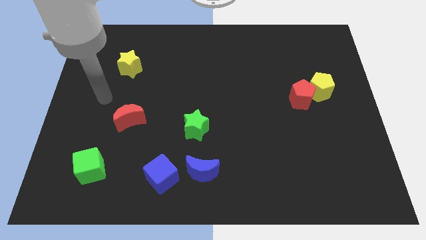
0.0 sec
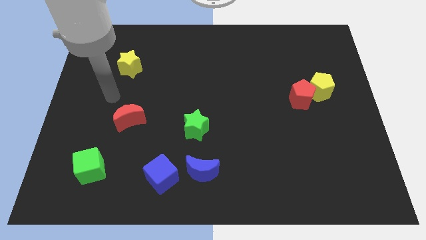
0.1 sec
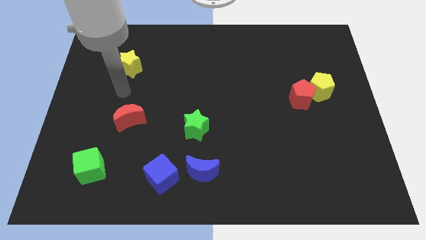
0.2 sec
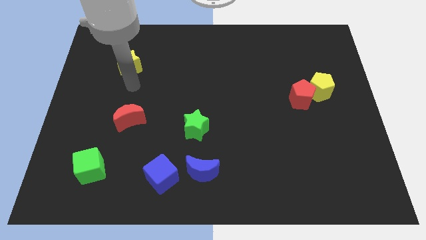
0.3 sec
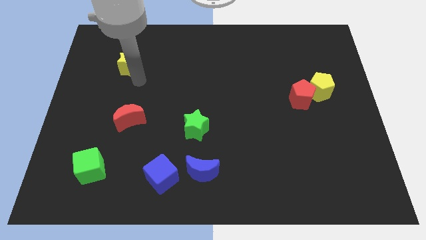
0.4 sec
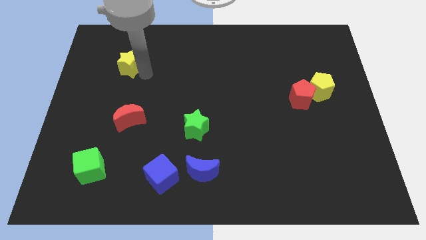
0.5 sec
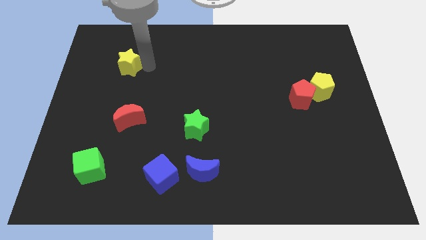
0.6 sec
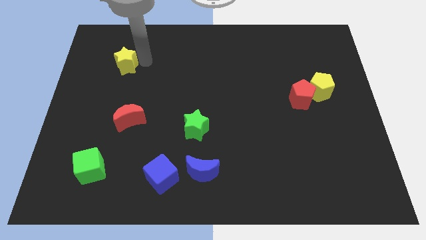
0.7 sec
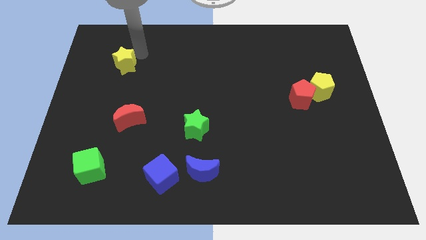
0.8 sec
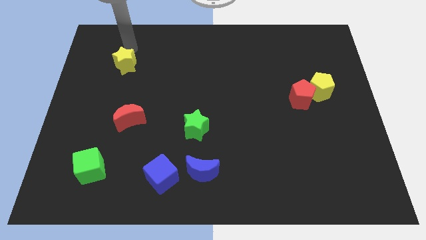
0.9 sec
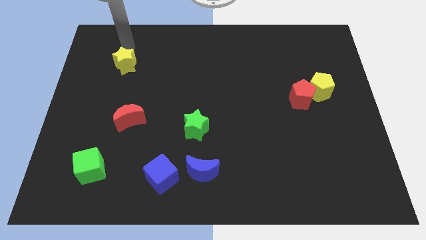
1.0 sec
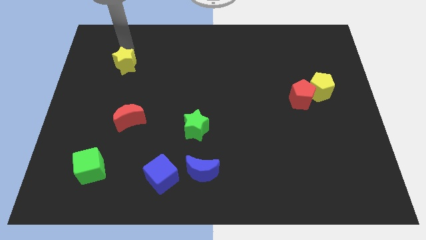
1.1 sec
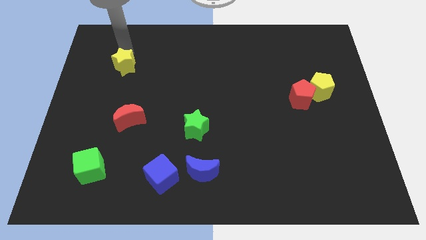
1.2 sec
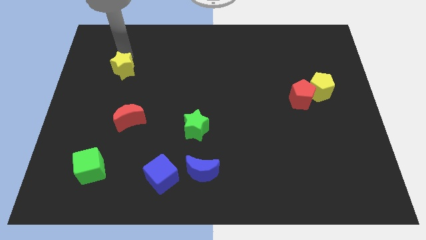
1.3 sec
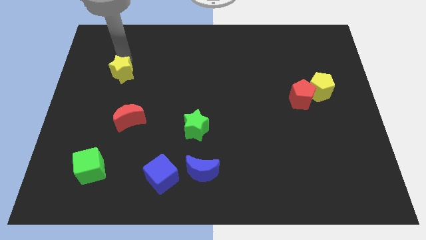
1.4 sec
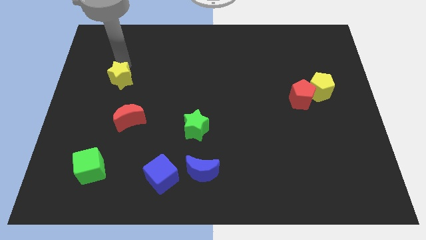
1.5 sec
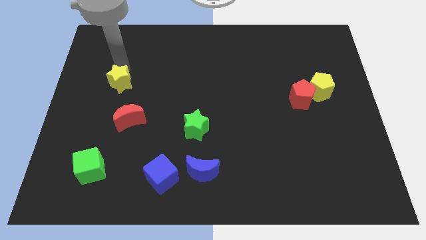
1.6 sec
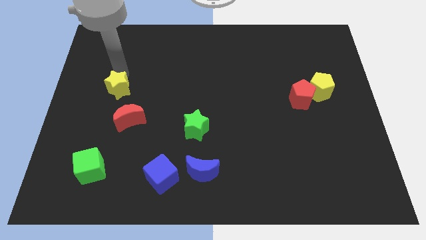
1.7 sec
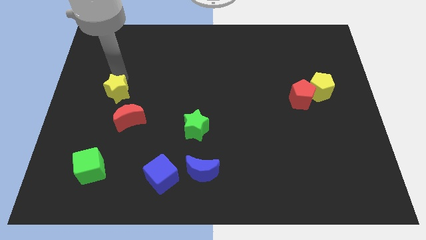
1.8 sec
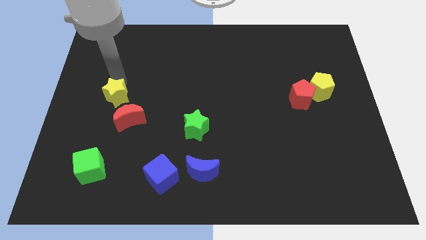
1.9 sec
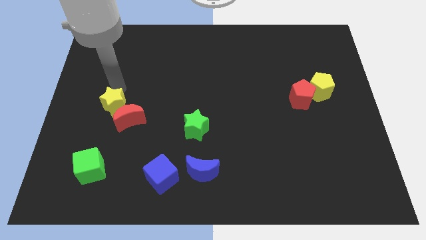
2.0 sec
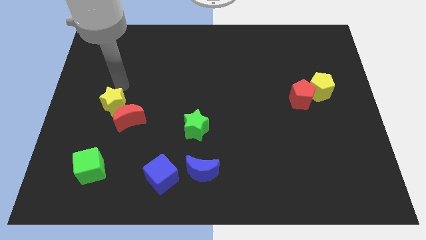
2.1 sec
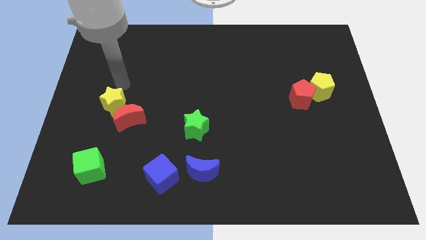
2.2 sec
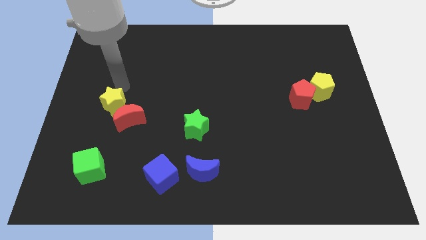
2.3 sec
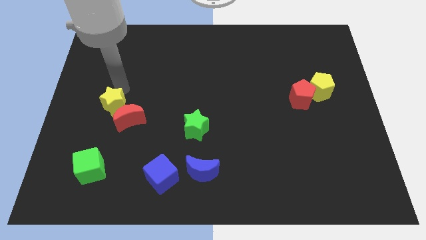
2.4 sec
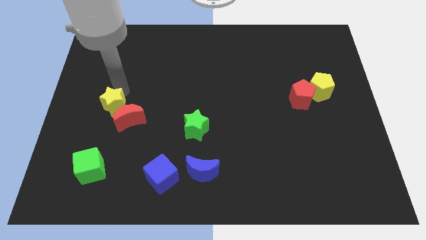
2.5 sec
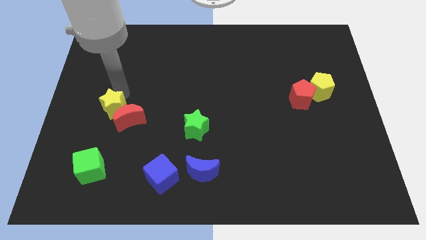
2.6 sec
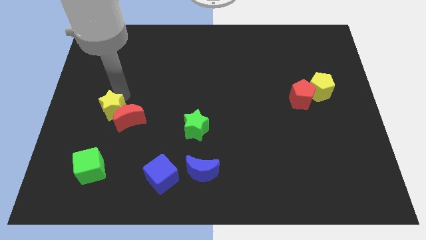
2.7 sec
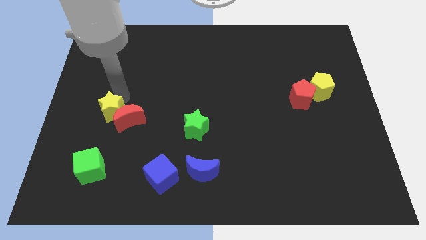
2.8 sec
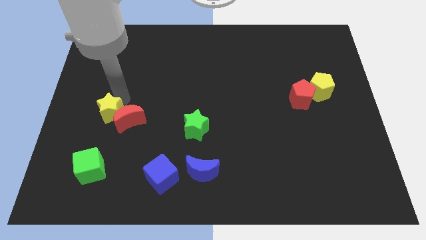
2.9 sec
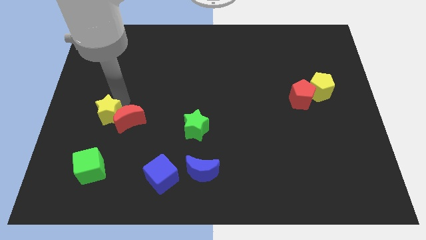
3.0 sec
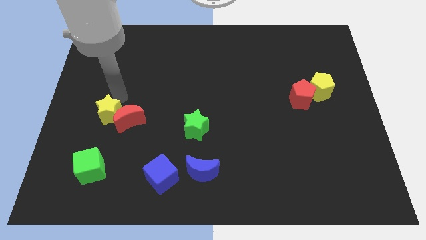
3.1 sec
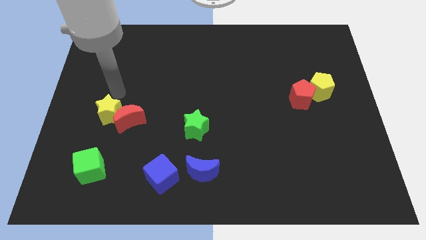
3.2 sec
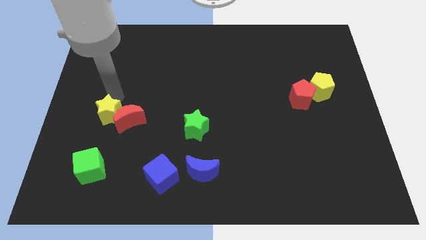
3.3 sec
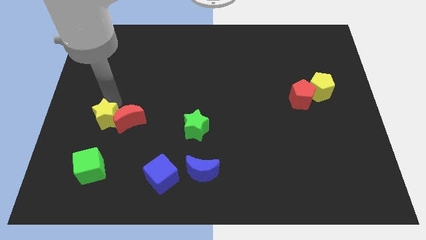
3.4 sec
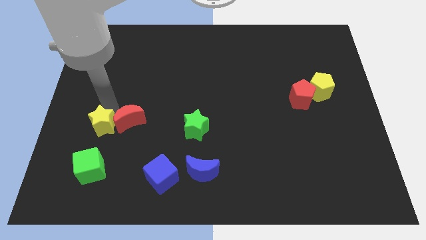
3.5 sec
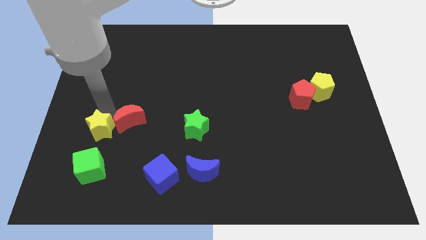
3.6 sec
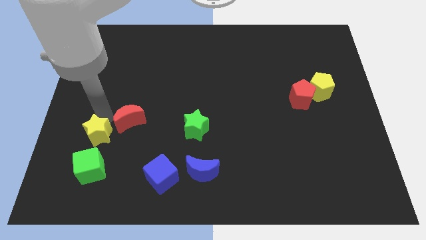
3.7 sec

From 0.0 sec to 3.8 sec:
slide the yellow star down

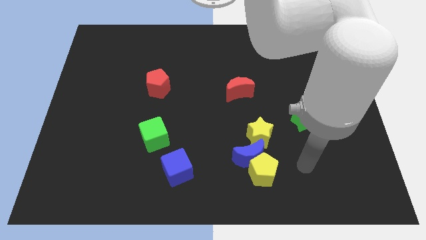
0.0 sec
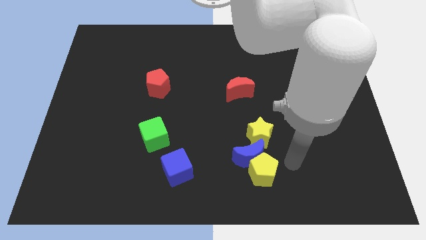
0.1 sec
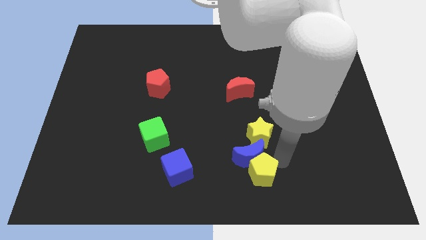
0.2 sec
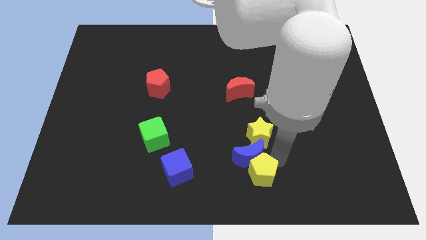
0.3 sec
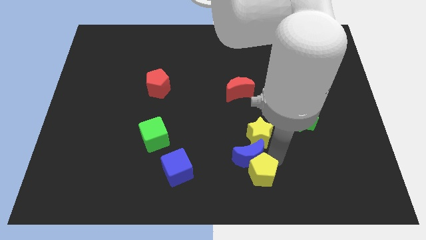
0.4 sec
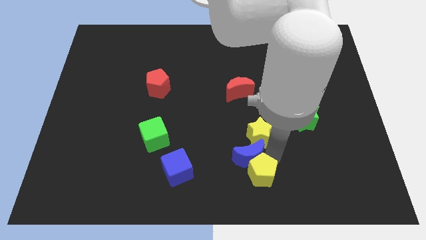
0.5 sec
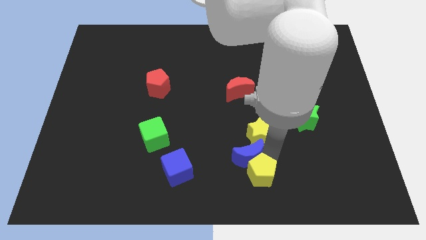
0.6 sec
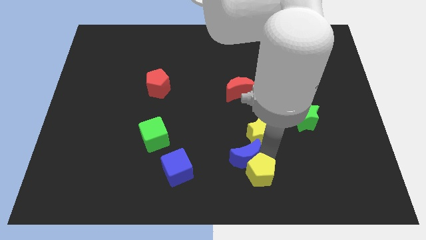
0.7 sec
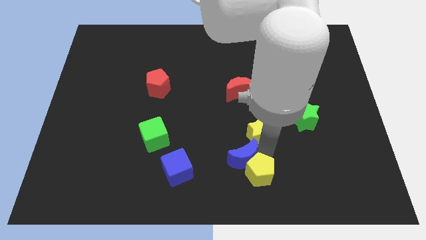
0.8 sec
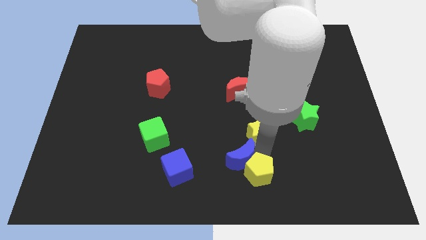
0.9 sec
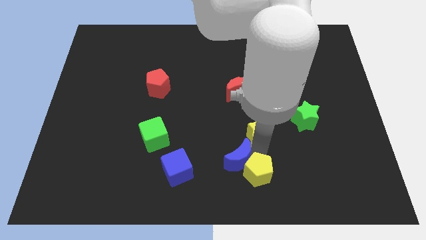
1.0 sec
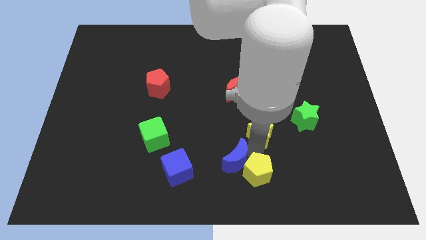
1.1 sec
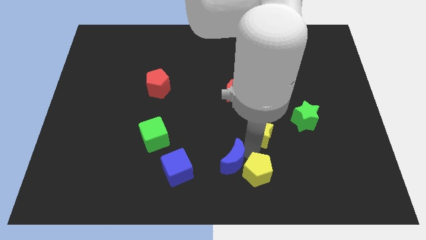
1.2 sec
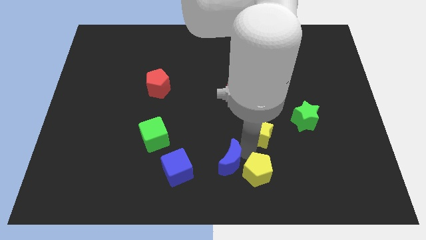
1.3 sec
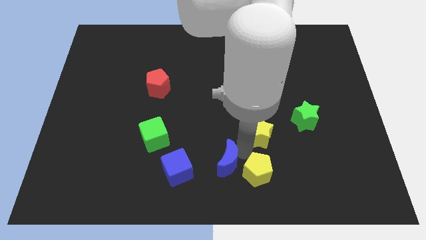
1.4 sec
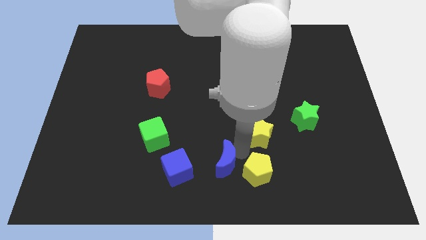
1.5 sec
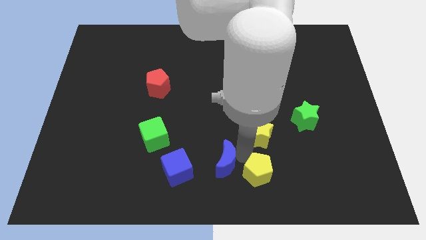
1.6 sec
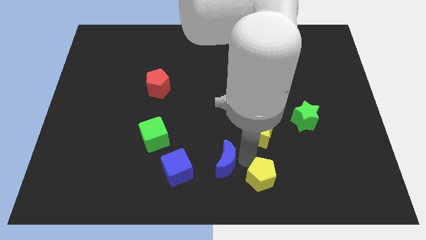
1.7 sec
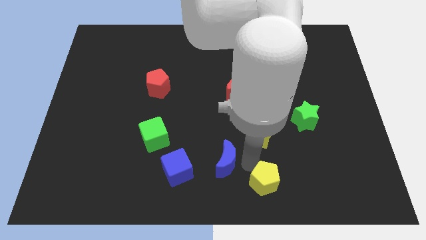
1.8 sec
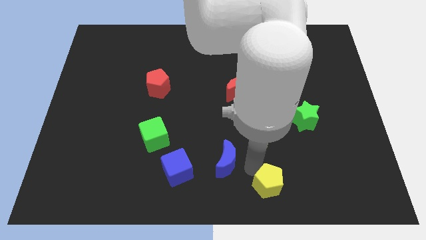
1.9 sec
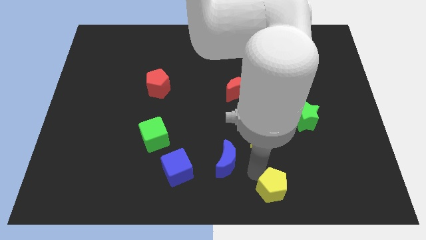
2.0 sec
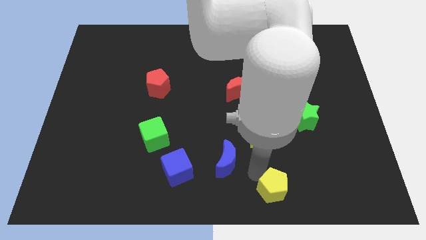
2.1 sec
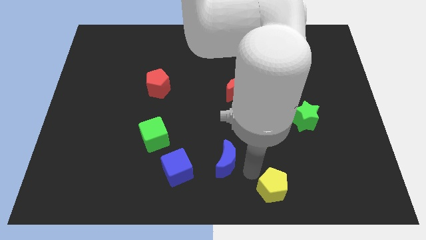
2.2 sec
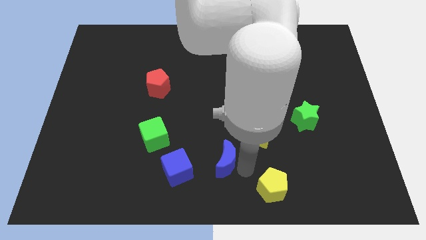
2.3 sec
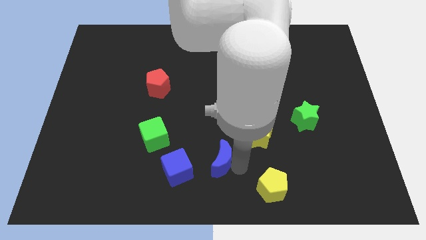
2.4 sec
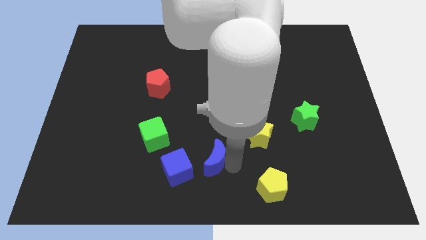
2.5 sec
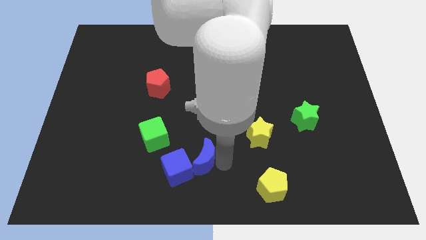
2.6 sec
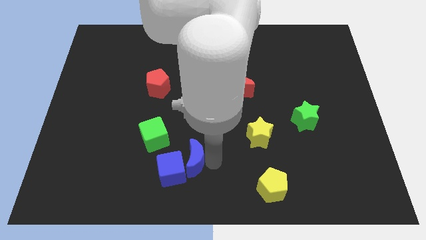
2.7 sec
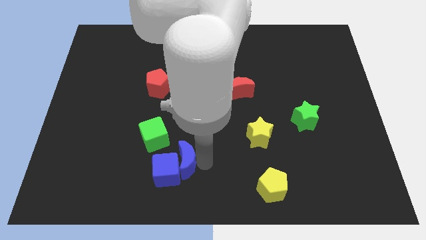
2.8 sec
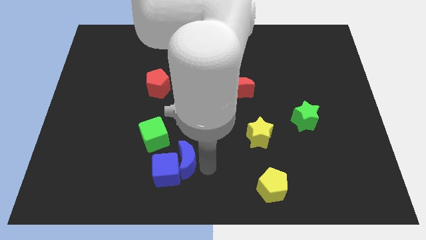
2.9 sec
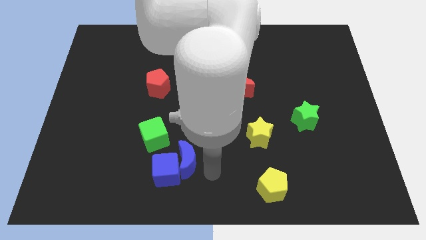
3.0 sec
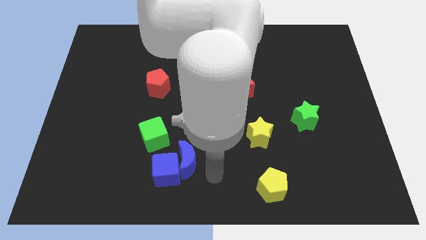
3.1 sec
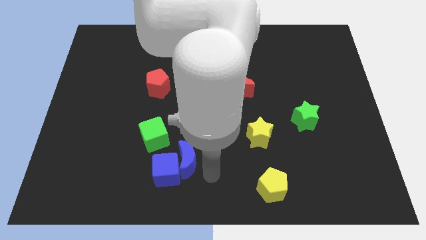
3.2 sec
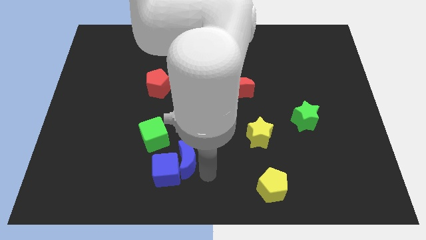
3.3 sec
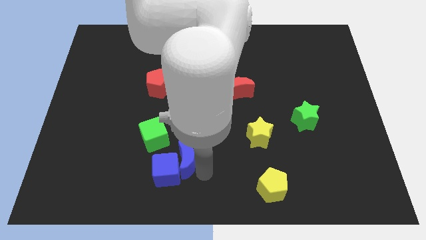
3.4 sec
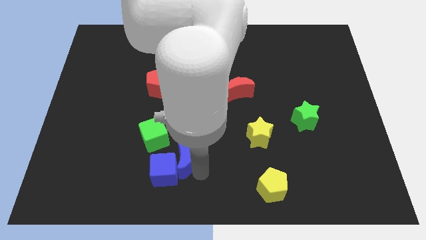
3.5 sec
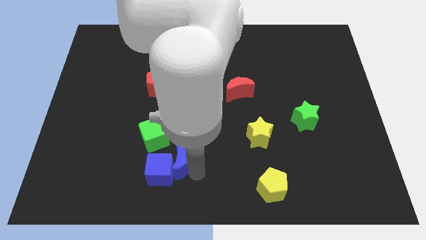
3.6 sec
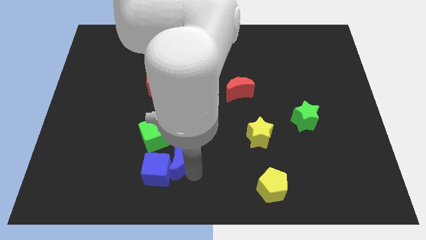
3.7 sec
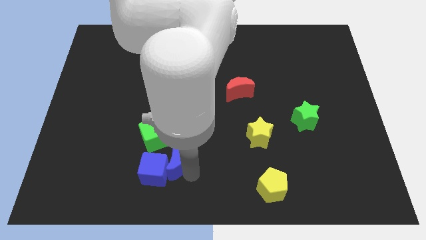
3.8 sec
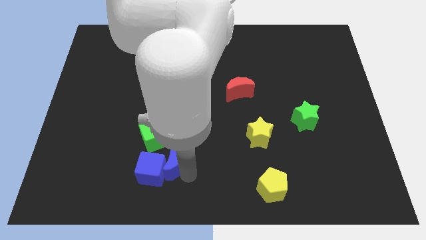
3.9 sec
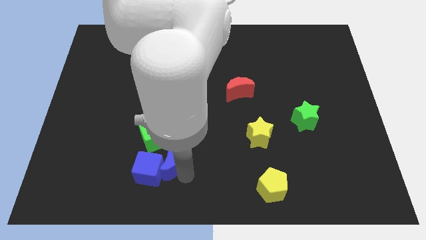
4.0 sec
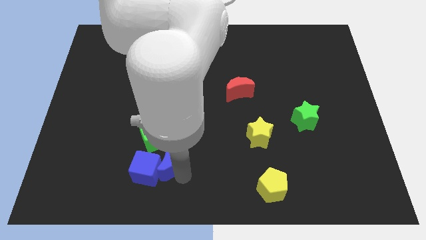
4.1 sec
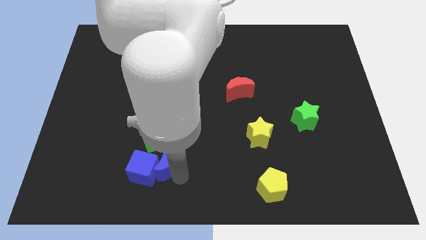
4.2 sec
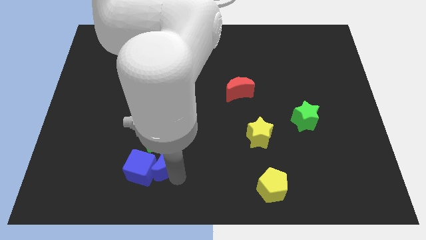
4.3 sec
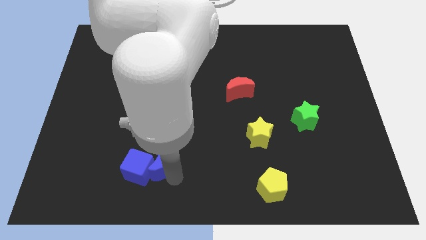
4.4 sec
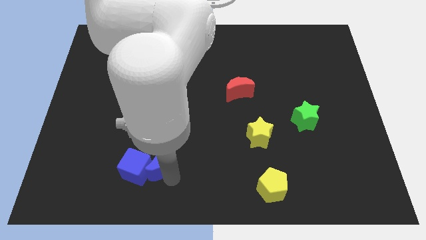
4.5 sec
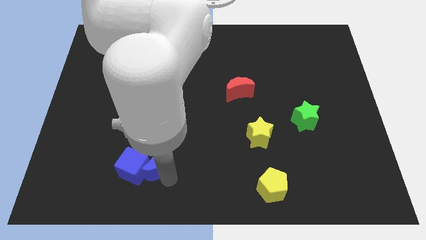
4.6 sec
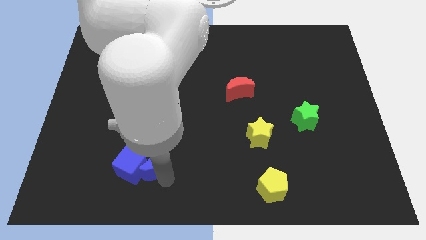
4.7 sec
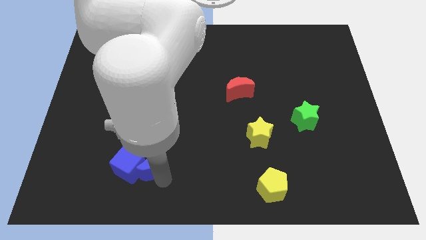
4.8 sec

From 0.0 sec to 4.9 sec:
push the blue moon to the left
